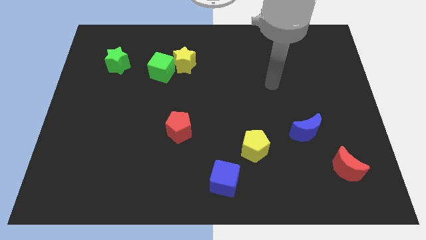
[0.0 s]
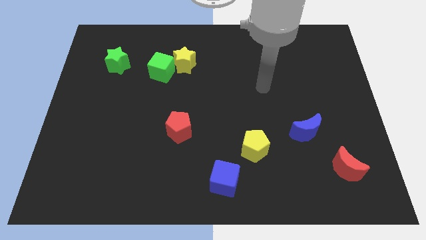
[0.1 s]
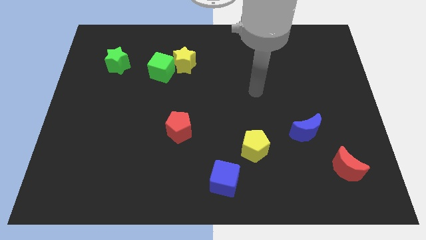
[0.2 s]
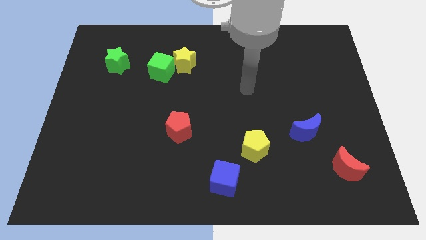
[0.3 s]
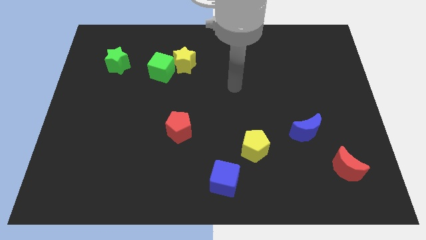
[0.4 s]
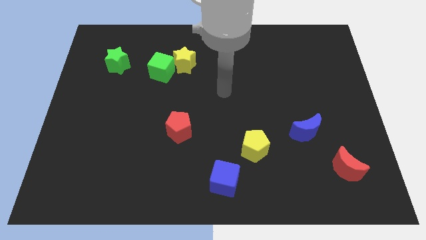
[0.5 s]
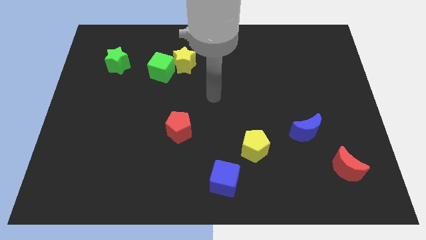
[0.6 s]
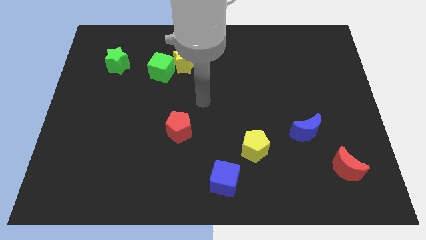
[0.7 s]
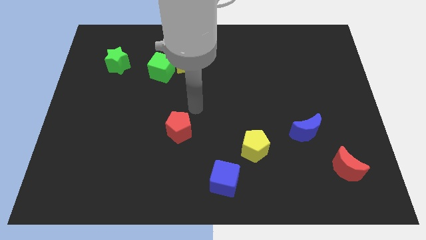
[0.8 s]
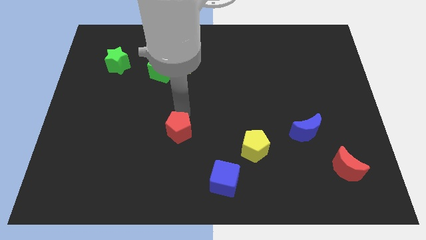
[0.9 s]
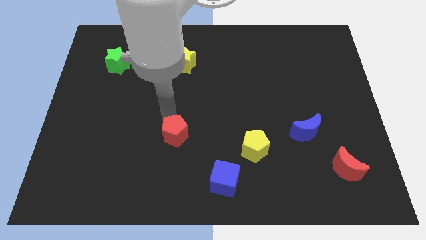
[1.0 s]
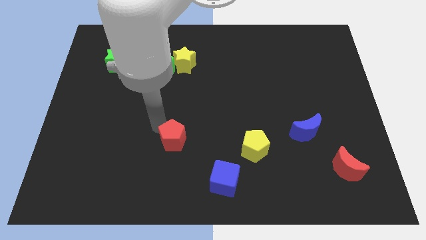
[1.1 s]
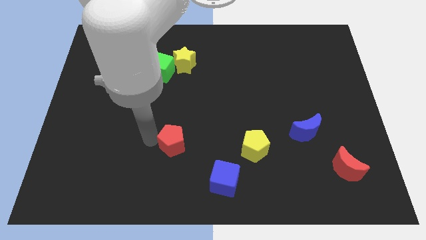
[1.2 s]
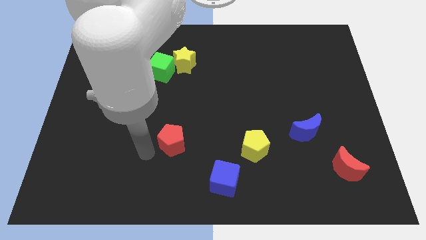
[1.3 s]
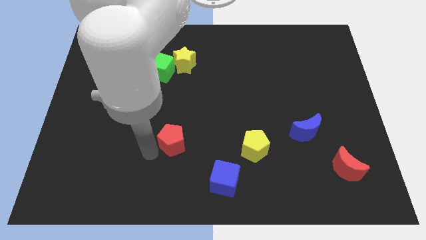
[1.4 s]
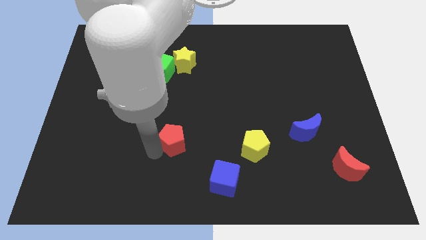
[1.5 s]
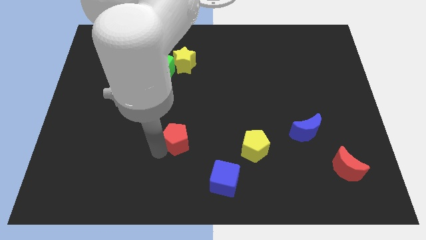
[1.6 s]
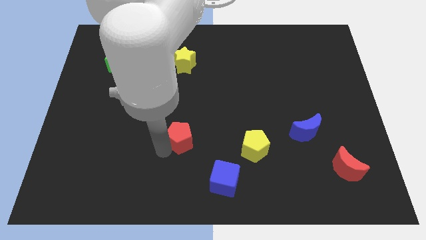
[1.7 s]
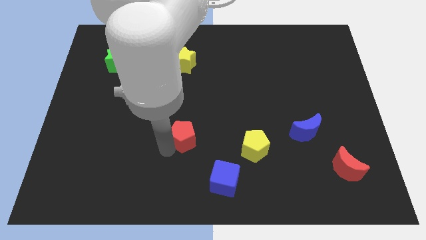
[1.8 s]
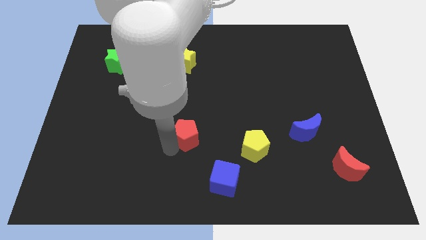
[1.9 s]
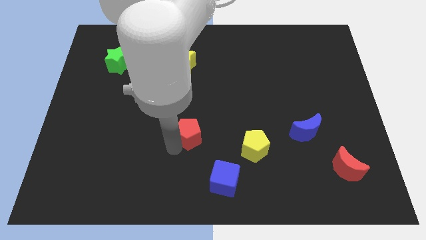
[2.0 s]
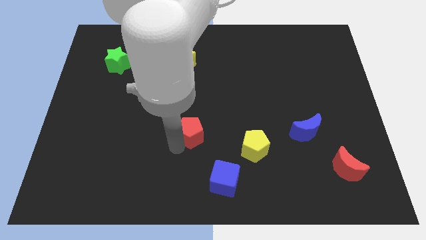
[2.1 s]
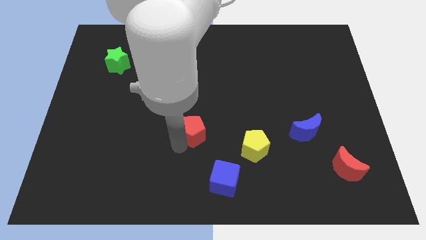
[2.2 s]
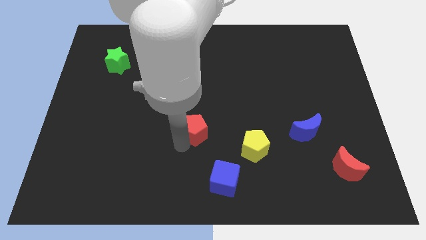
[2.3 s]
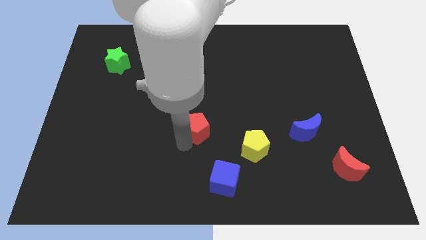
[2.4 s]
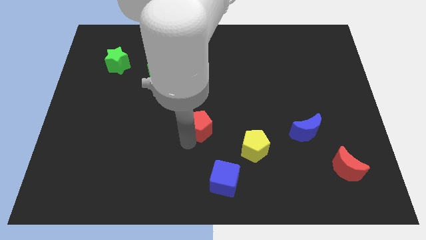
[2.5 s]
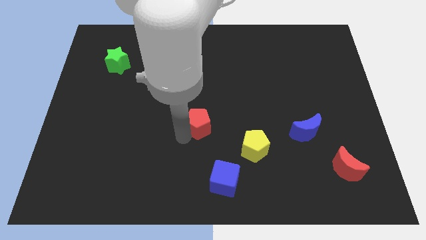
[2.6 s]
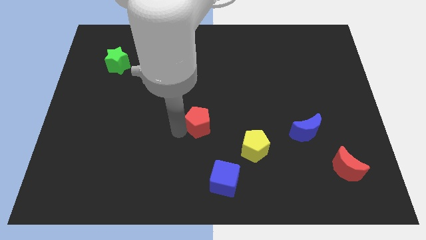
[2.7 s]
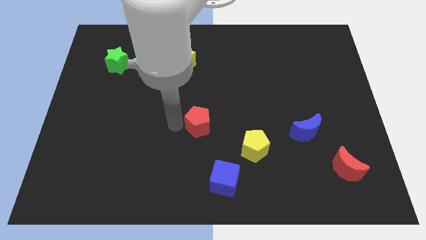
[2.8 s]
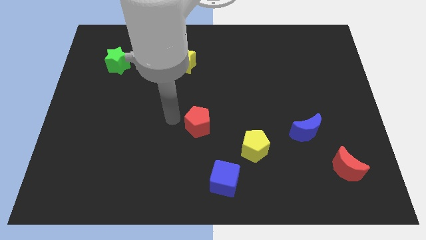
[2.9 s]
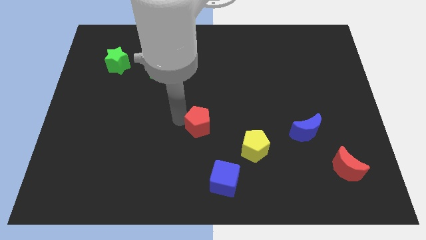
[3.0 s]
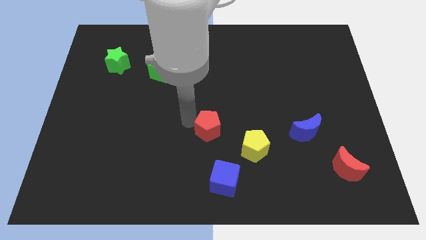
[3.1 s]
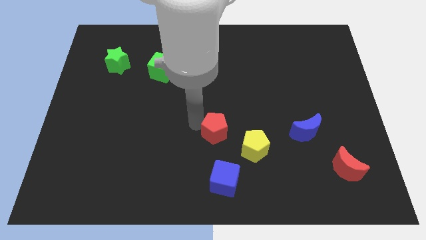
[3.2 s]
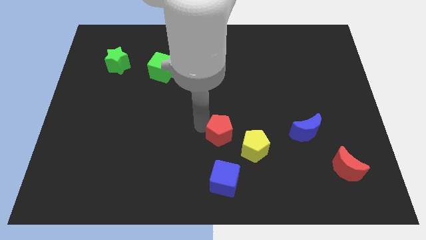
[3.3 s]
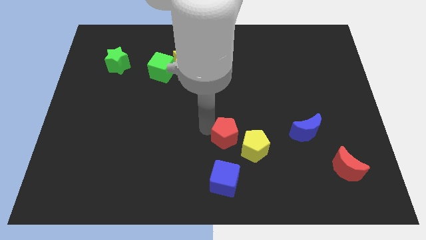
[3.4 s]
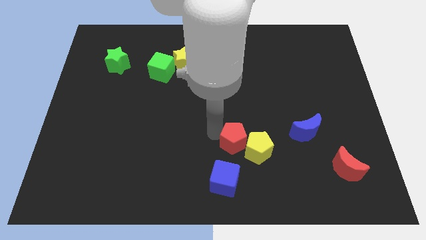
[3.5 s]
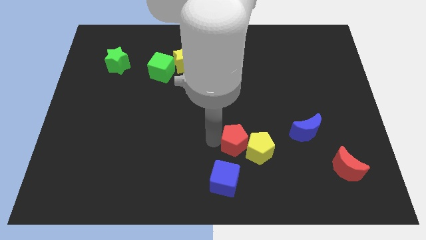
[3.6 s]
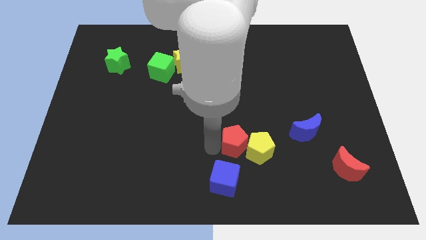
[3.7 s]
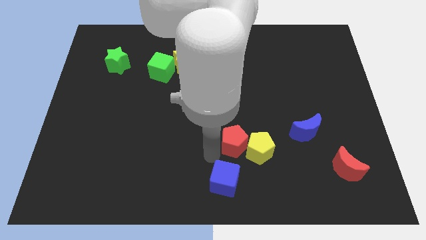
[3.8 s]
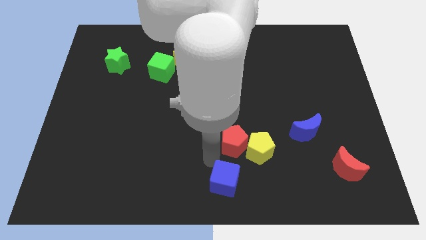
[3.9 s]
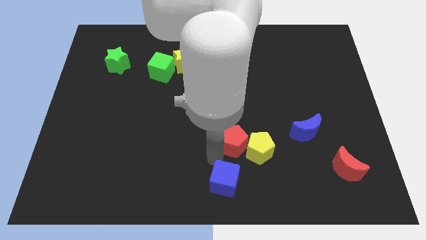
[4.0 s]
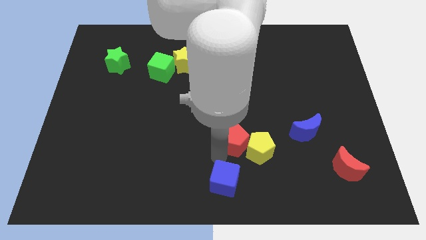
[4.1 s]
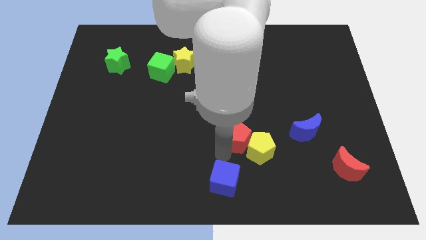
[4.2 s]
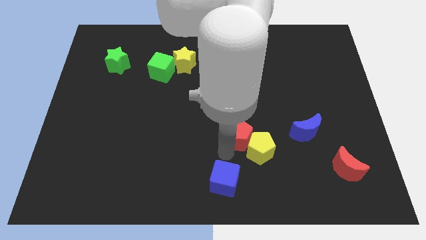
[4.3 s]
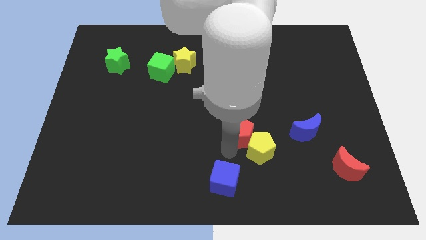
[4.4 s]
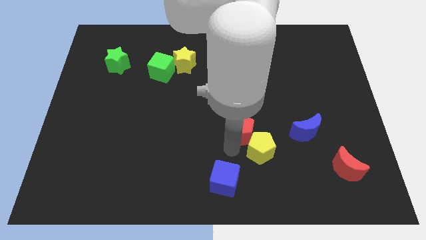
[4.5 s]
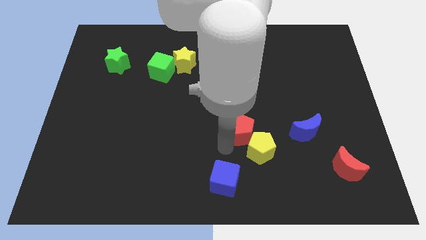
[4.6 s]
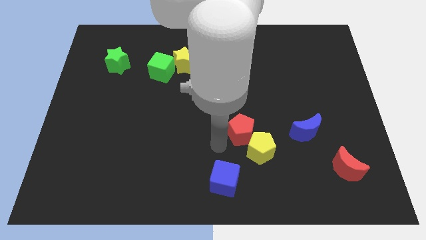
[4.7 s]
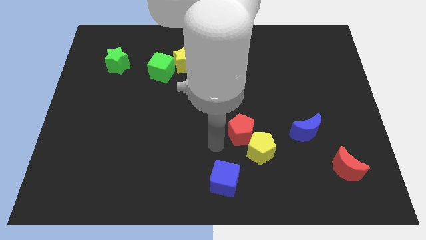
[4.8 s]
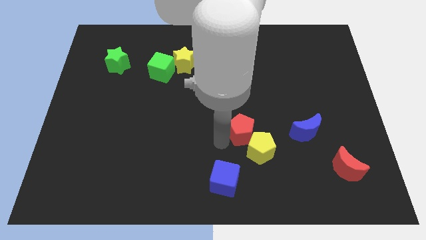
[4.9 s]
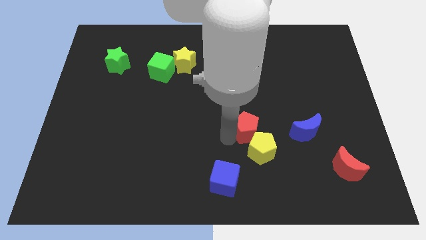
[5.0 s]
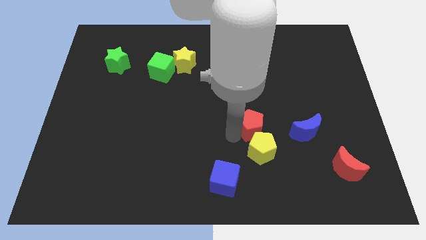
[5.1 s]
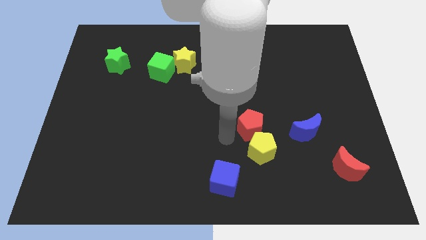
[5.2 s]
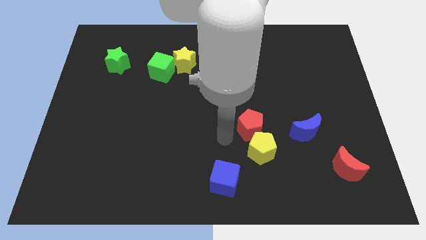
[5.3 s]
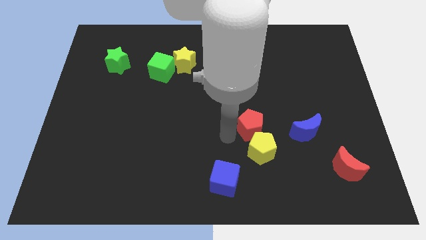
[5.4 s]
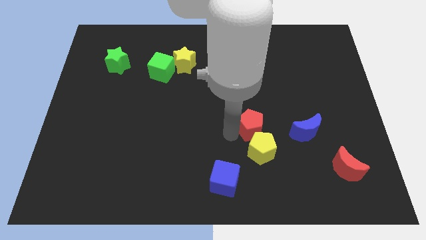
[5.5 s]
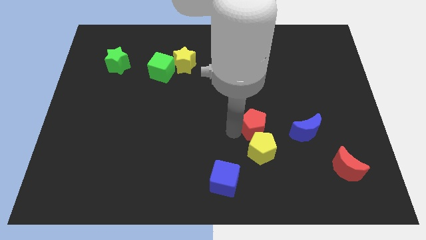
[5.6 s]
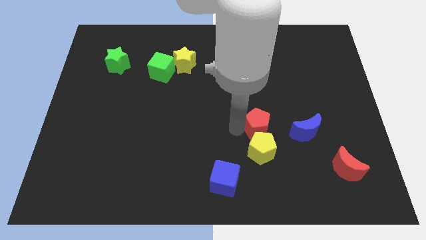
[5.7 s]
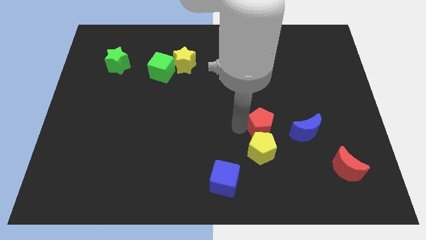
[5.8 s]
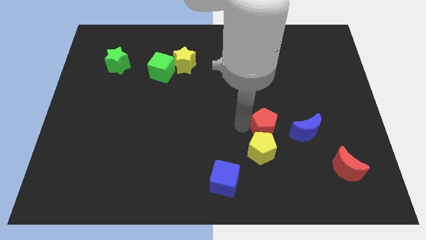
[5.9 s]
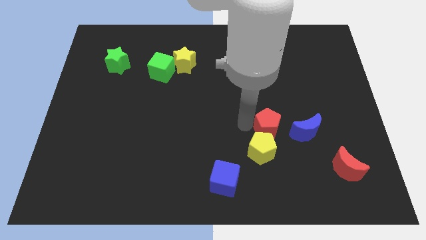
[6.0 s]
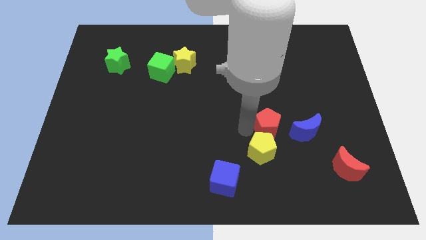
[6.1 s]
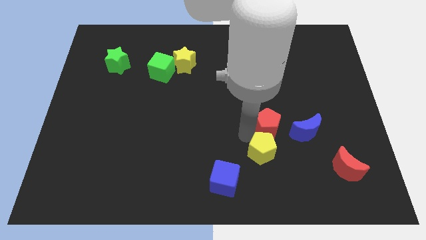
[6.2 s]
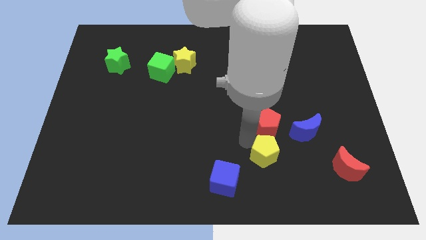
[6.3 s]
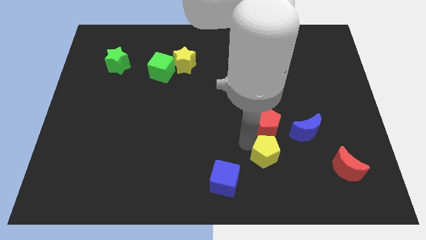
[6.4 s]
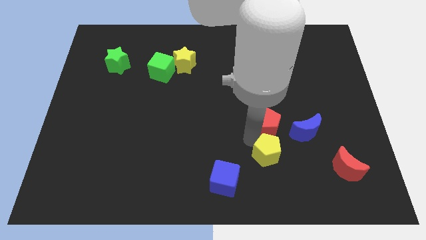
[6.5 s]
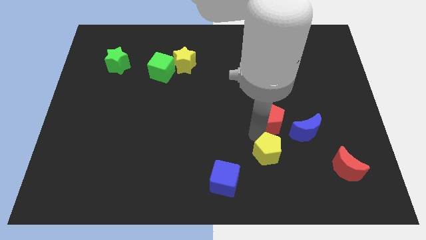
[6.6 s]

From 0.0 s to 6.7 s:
put the red pentagon to the top left of the blue moon

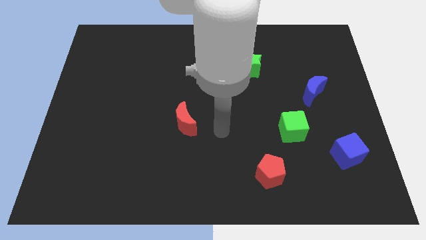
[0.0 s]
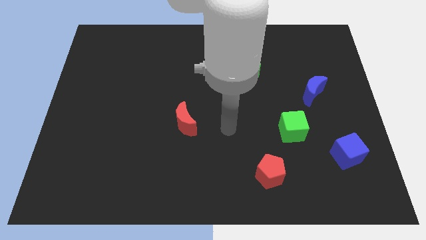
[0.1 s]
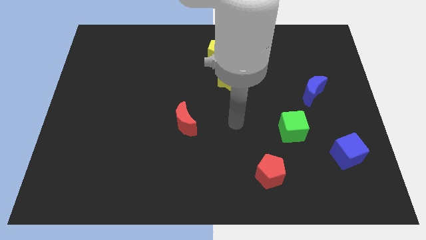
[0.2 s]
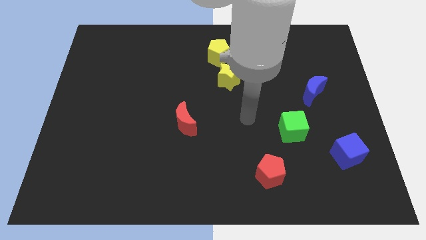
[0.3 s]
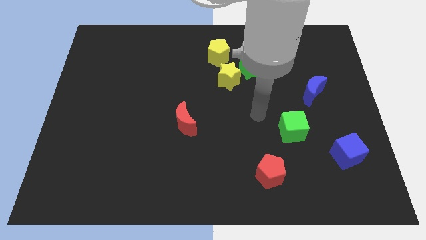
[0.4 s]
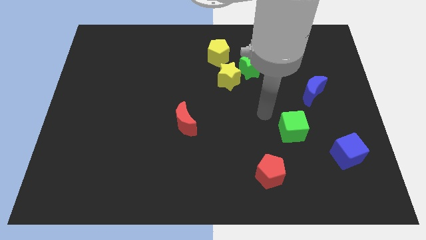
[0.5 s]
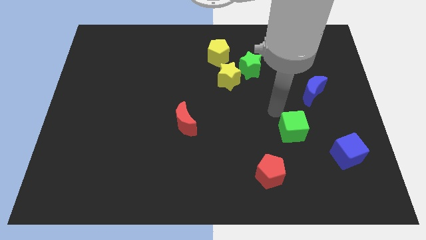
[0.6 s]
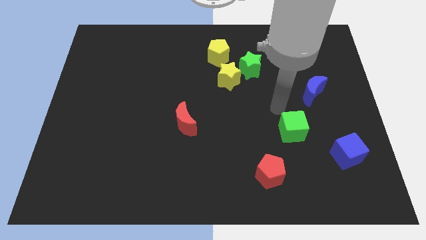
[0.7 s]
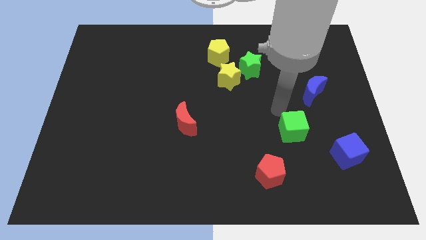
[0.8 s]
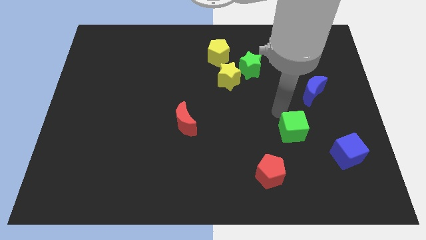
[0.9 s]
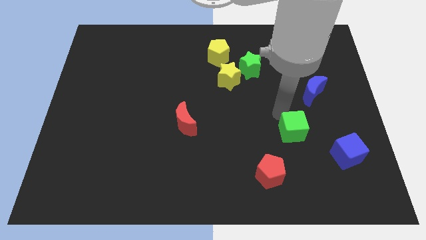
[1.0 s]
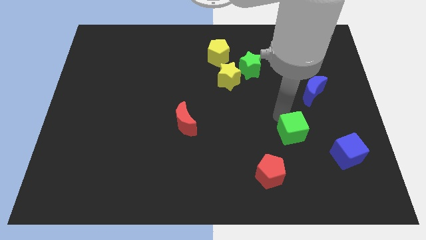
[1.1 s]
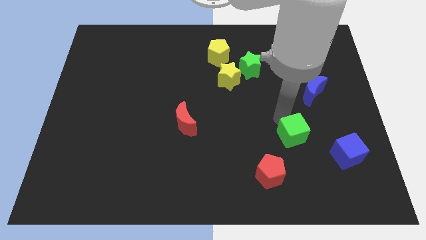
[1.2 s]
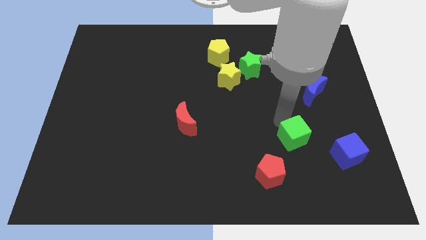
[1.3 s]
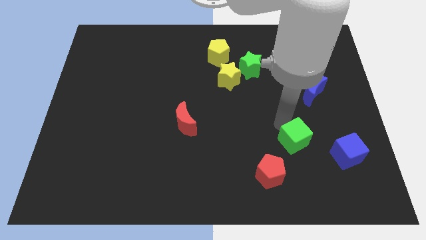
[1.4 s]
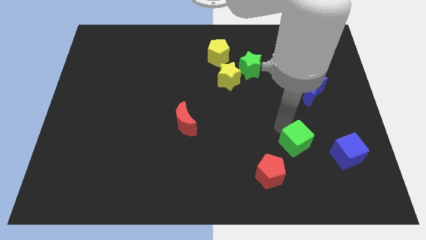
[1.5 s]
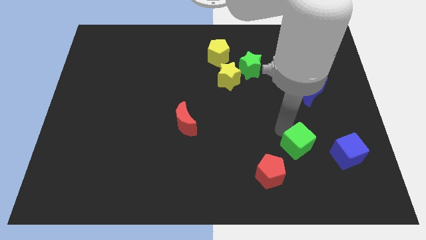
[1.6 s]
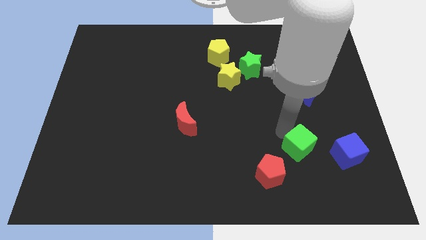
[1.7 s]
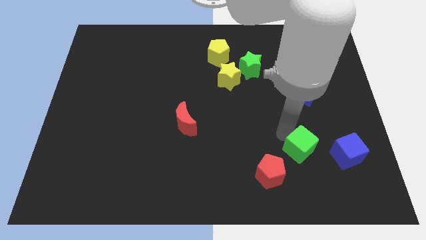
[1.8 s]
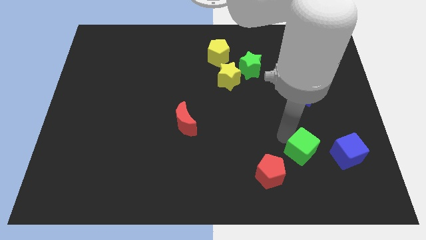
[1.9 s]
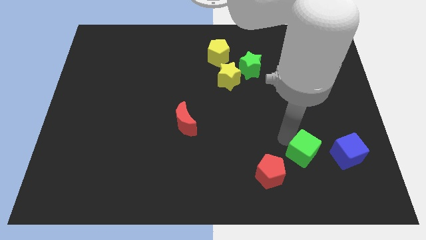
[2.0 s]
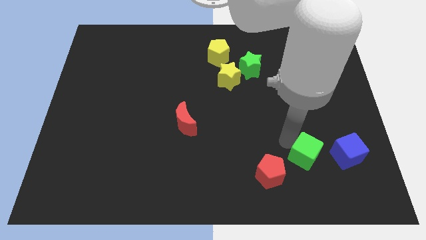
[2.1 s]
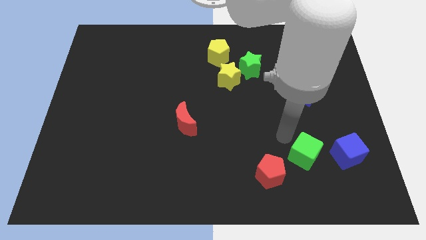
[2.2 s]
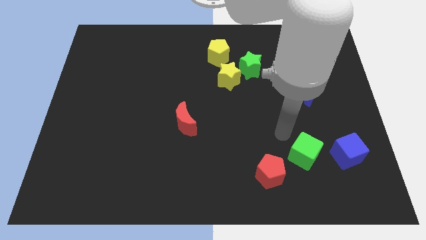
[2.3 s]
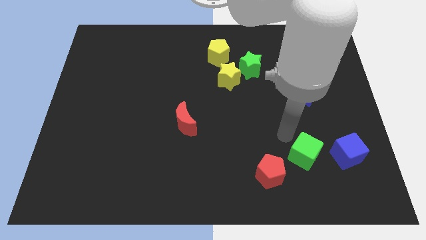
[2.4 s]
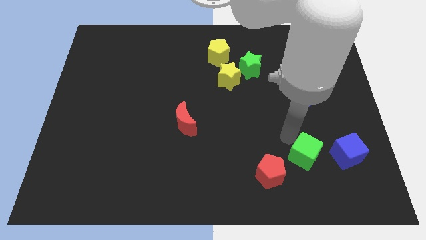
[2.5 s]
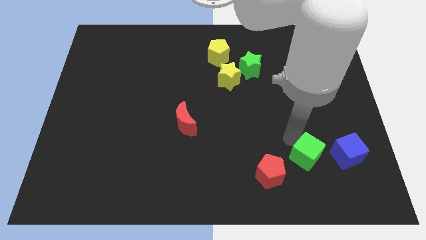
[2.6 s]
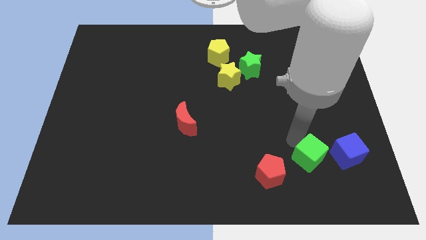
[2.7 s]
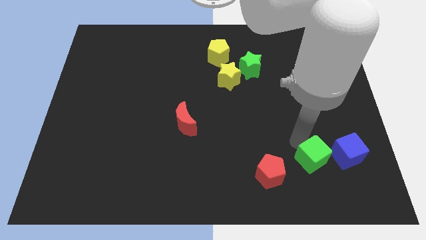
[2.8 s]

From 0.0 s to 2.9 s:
push the green cube to the bottom left of the blue cube
